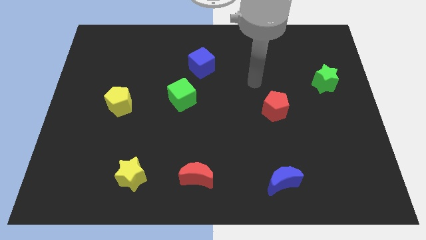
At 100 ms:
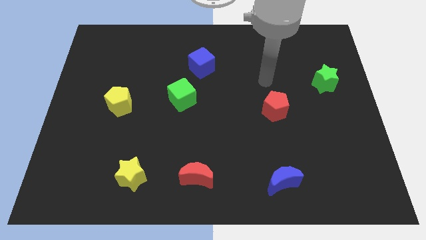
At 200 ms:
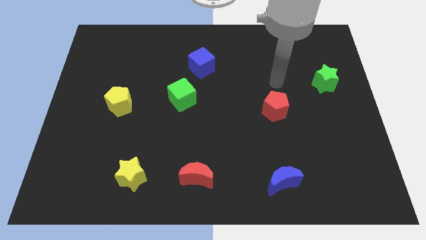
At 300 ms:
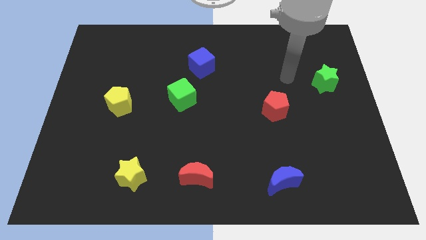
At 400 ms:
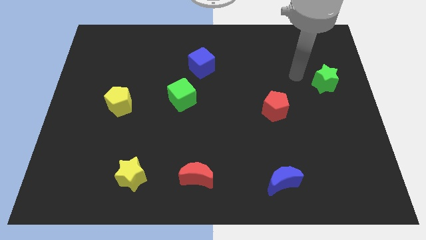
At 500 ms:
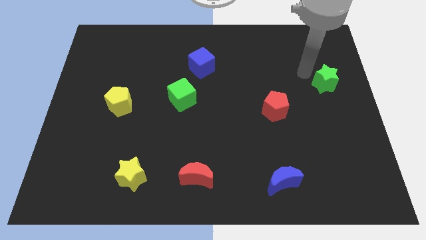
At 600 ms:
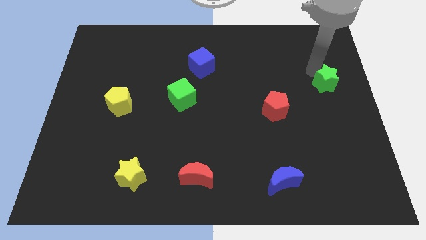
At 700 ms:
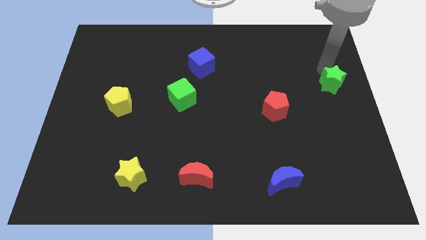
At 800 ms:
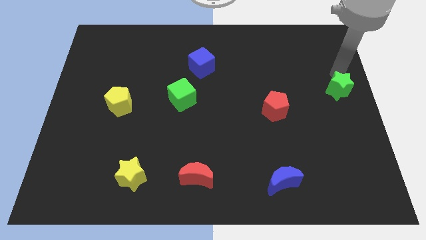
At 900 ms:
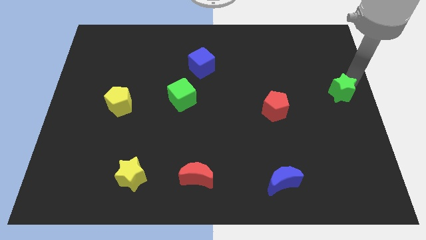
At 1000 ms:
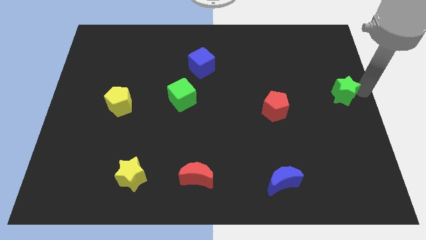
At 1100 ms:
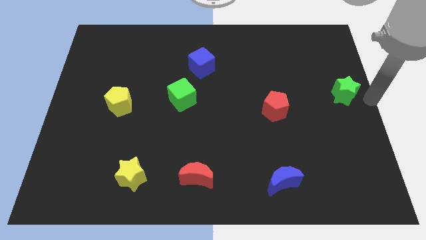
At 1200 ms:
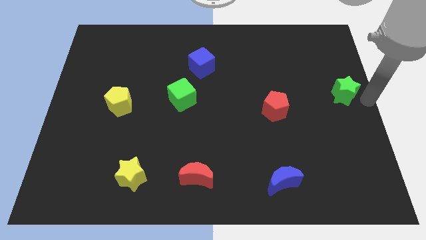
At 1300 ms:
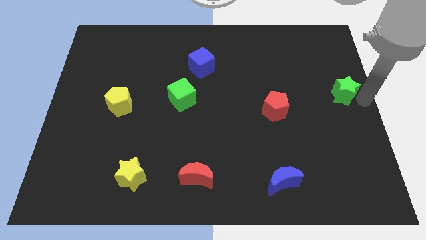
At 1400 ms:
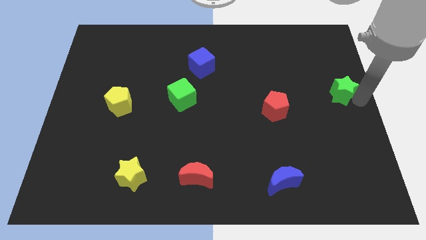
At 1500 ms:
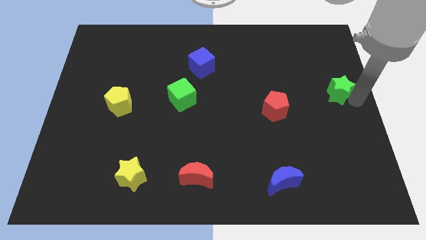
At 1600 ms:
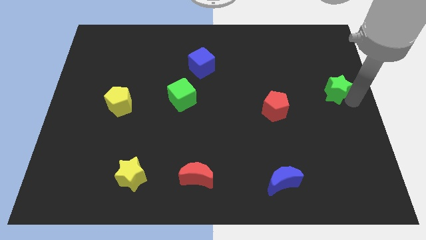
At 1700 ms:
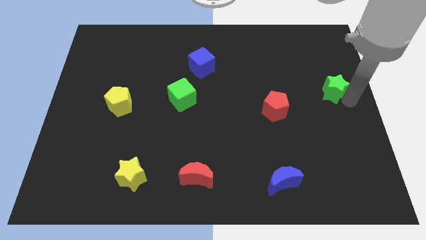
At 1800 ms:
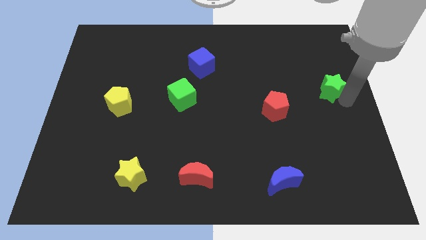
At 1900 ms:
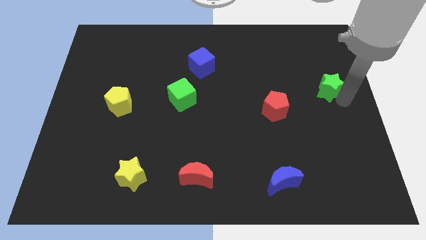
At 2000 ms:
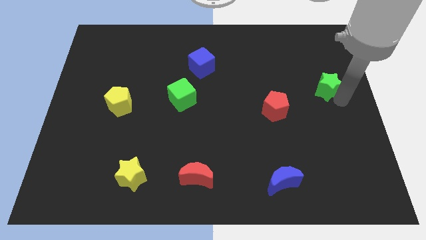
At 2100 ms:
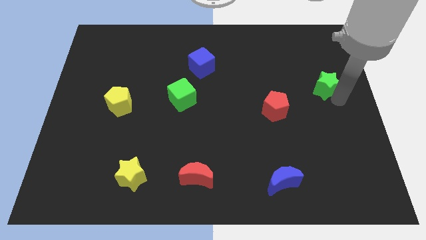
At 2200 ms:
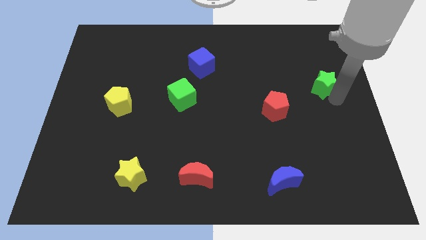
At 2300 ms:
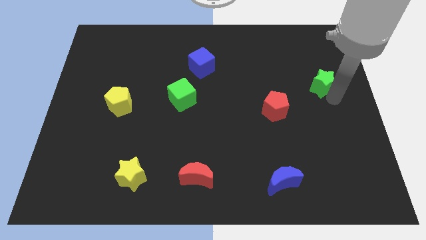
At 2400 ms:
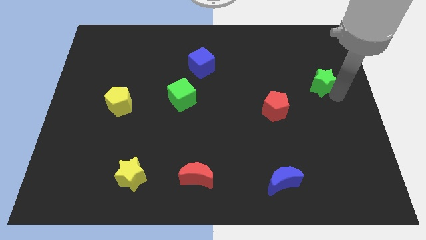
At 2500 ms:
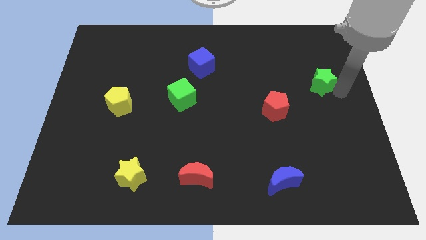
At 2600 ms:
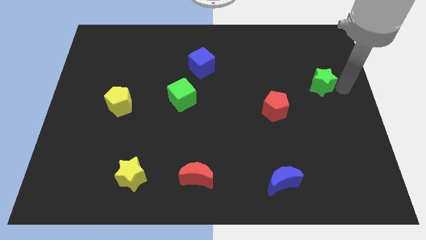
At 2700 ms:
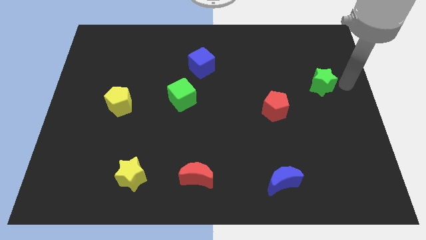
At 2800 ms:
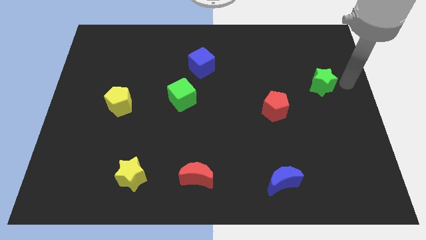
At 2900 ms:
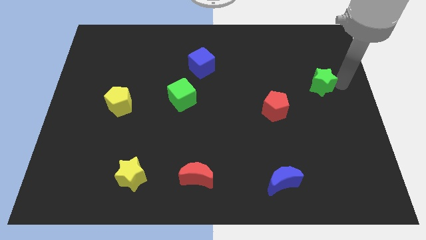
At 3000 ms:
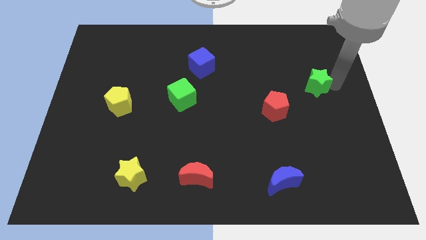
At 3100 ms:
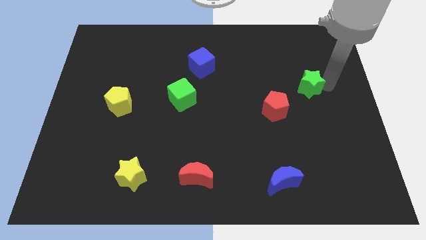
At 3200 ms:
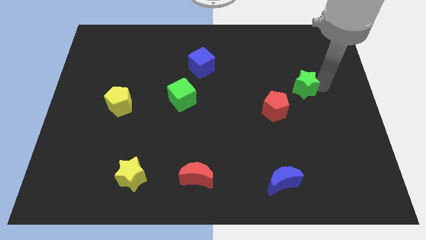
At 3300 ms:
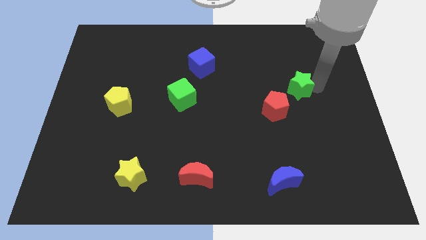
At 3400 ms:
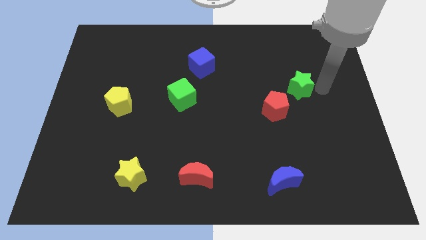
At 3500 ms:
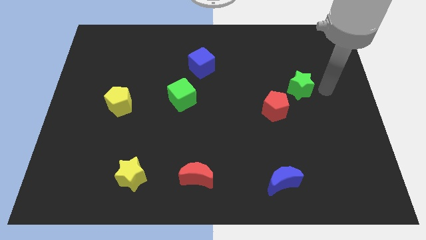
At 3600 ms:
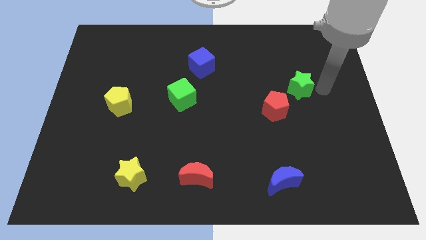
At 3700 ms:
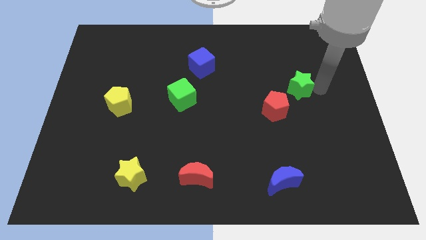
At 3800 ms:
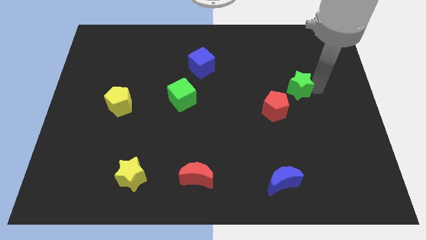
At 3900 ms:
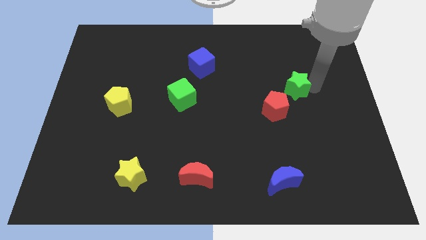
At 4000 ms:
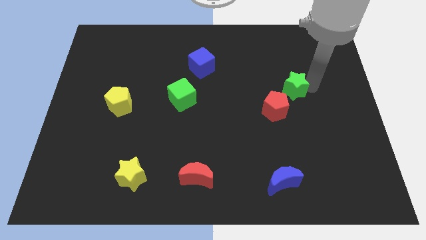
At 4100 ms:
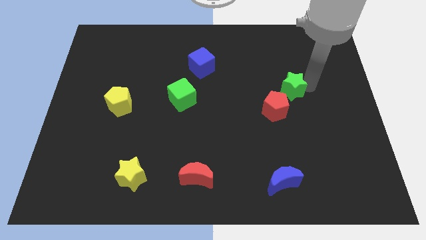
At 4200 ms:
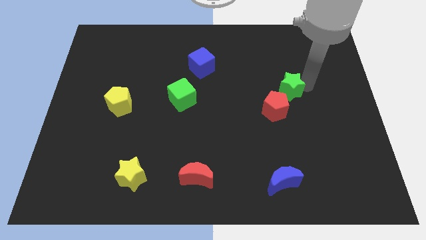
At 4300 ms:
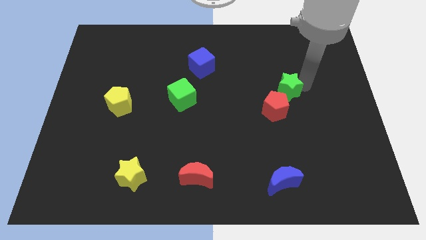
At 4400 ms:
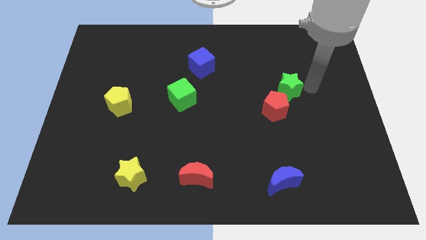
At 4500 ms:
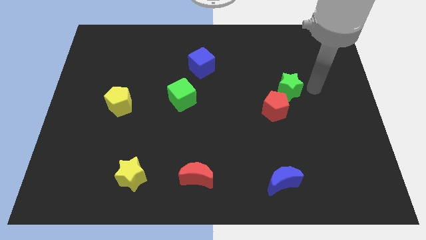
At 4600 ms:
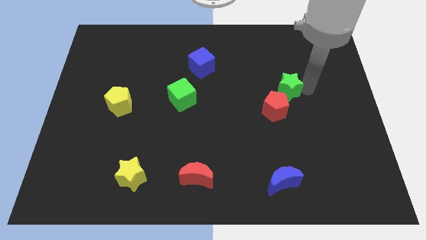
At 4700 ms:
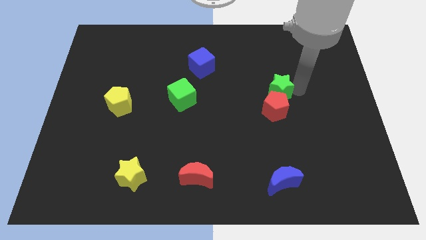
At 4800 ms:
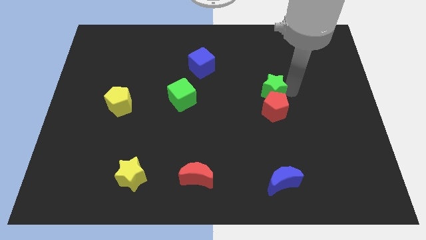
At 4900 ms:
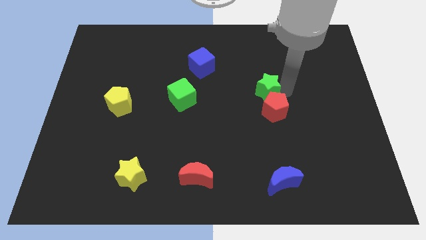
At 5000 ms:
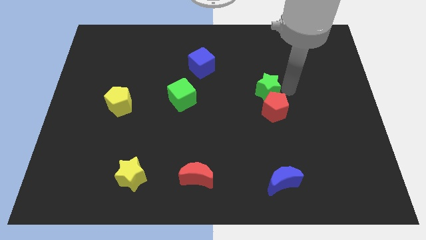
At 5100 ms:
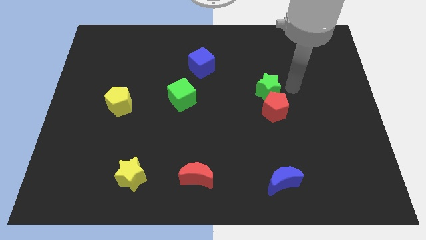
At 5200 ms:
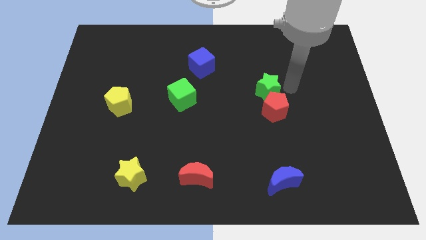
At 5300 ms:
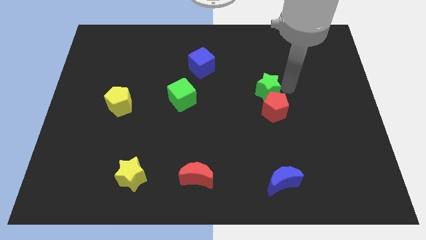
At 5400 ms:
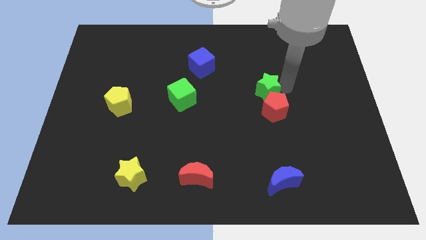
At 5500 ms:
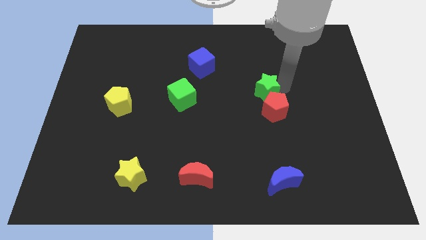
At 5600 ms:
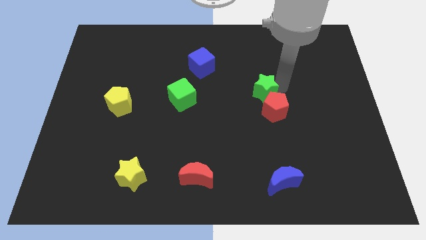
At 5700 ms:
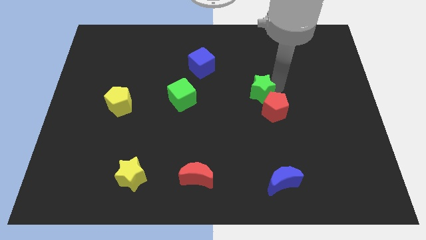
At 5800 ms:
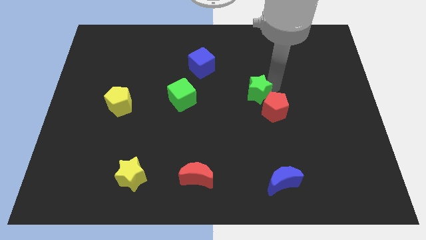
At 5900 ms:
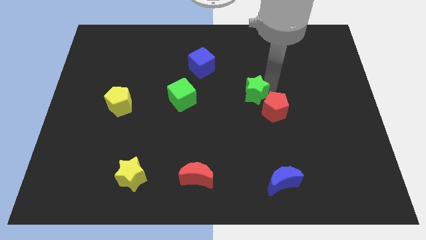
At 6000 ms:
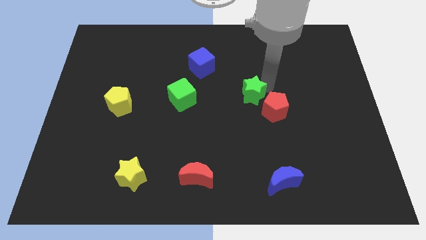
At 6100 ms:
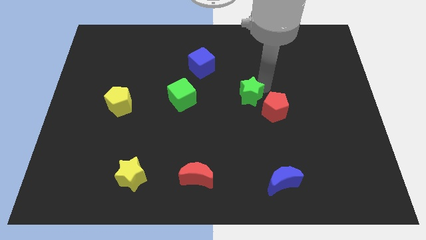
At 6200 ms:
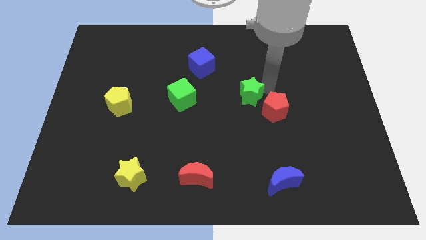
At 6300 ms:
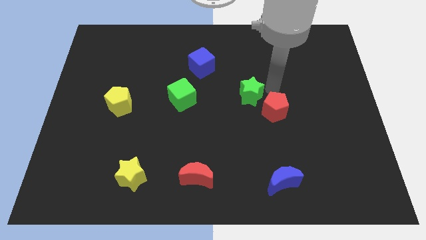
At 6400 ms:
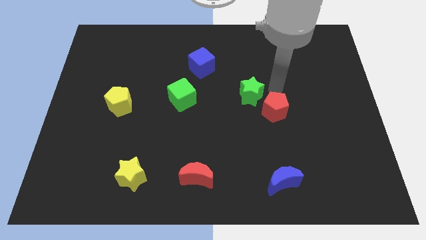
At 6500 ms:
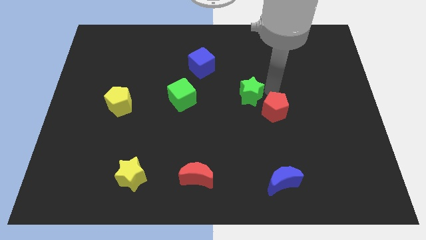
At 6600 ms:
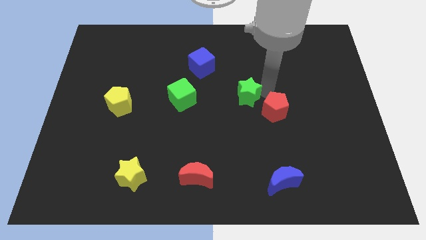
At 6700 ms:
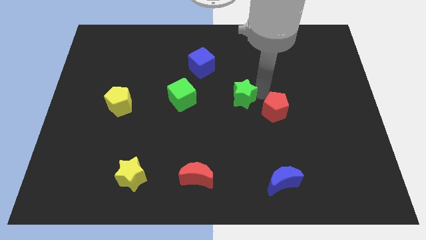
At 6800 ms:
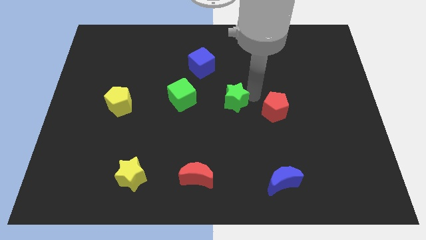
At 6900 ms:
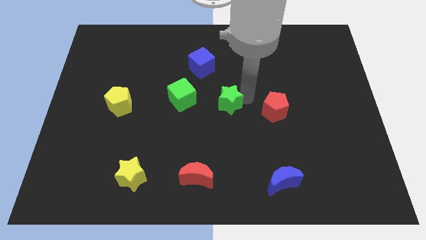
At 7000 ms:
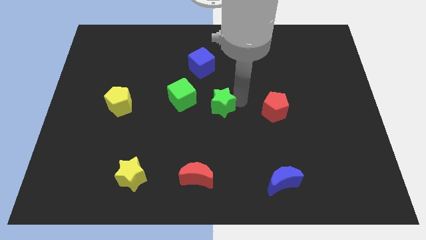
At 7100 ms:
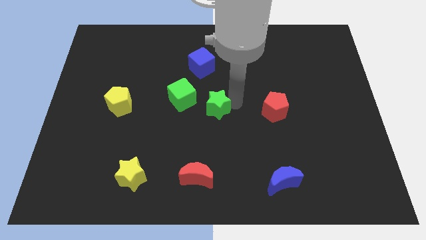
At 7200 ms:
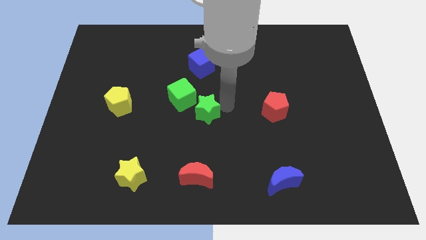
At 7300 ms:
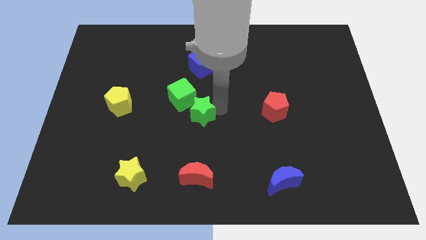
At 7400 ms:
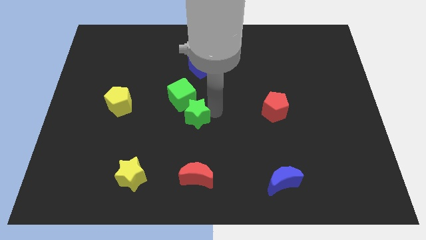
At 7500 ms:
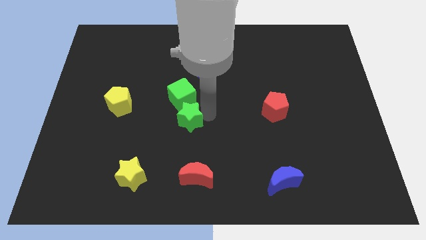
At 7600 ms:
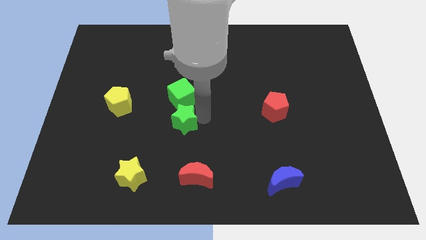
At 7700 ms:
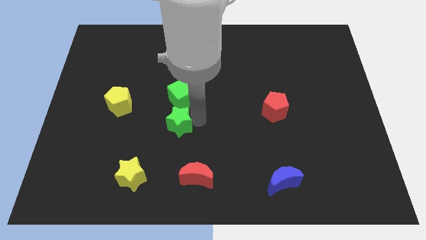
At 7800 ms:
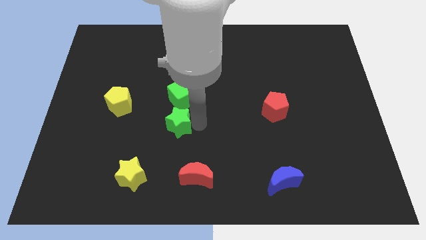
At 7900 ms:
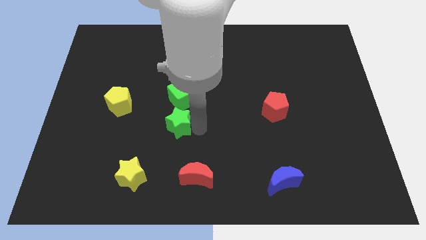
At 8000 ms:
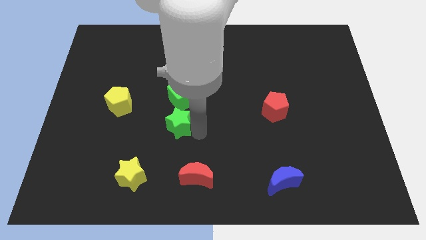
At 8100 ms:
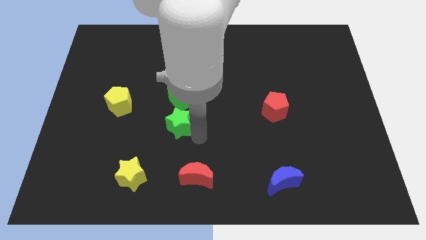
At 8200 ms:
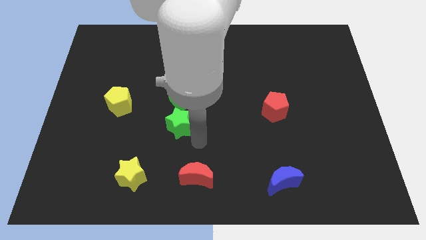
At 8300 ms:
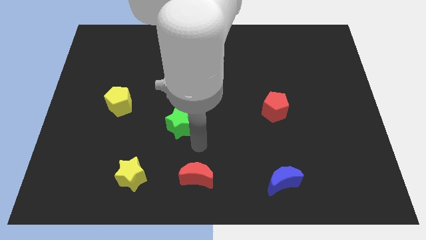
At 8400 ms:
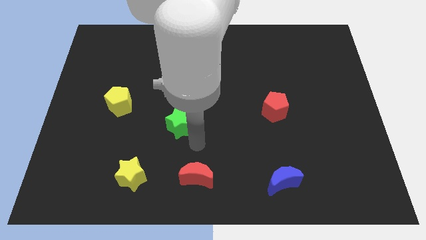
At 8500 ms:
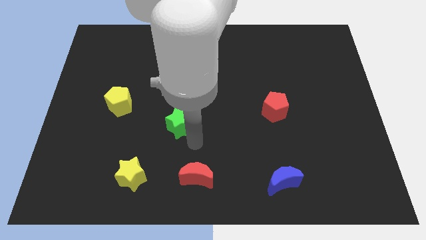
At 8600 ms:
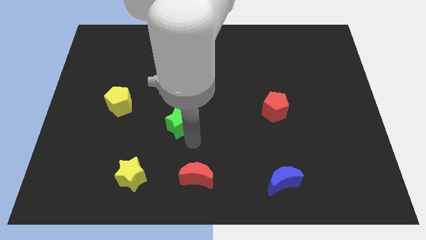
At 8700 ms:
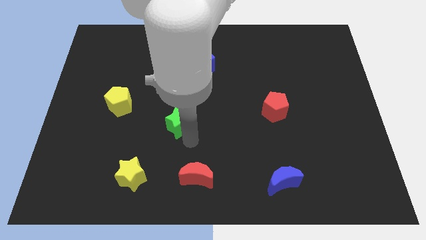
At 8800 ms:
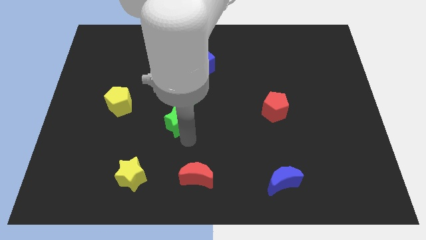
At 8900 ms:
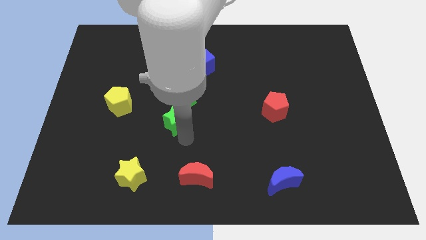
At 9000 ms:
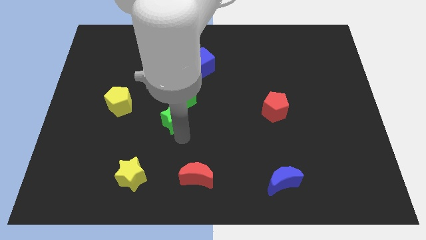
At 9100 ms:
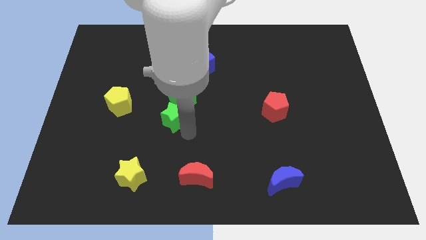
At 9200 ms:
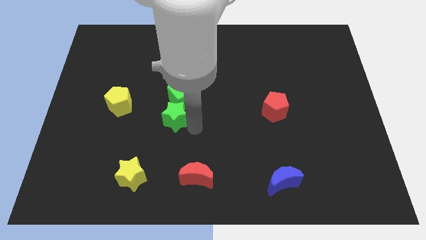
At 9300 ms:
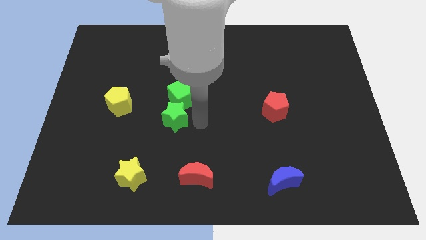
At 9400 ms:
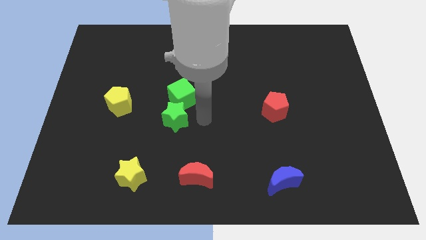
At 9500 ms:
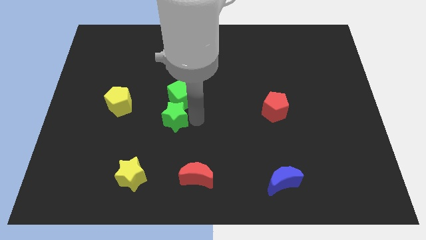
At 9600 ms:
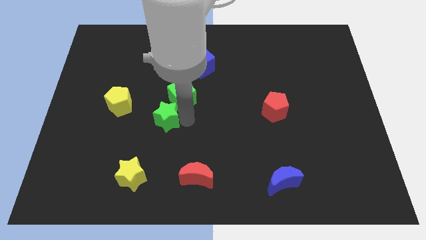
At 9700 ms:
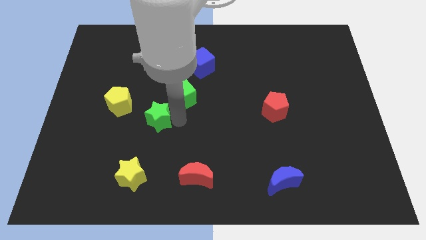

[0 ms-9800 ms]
put the green star to the bottom right of the yellow pentagon
